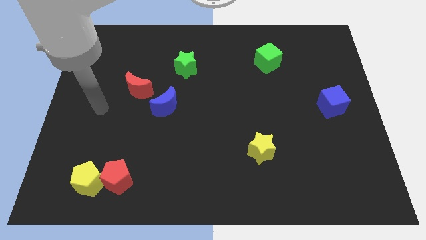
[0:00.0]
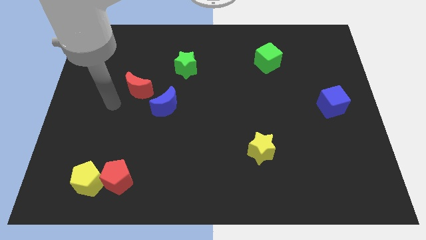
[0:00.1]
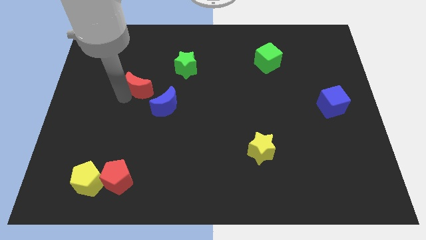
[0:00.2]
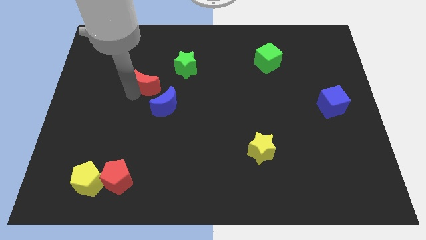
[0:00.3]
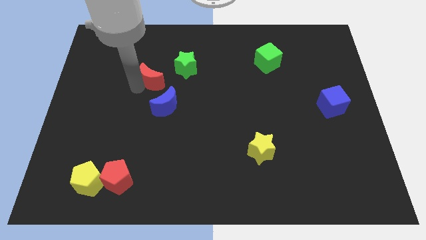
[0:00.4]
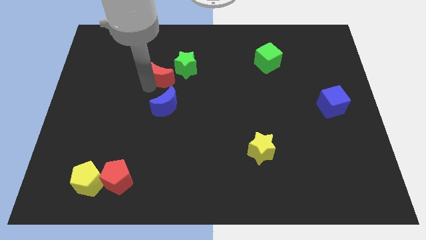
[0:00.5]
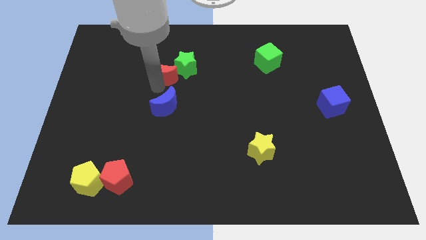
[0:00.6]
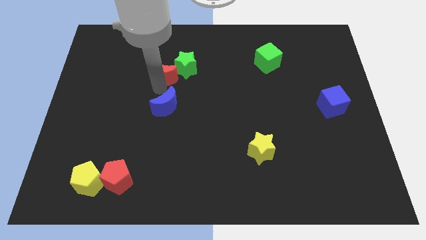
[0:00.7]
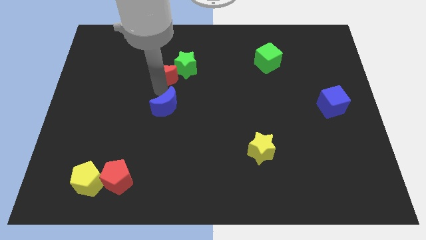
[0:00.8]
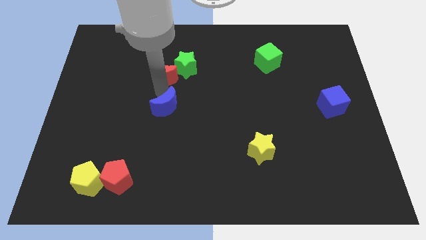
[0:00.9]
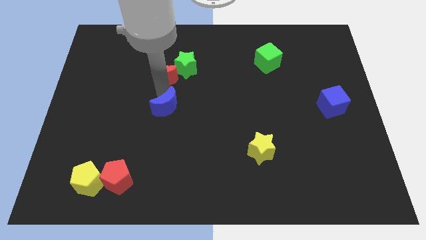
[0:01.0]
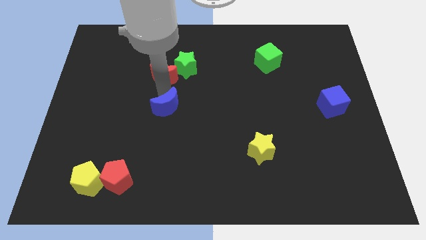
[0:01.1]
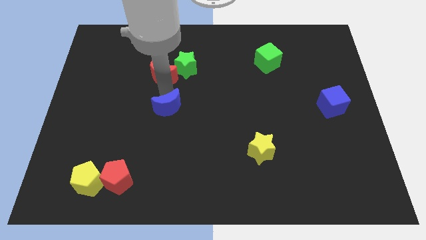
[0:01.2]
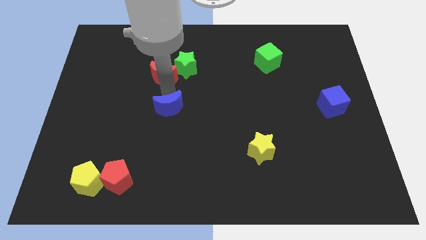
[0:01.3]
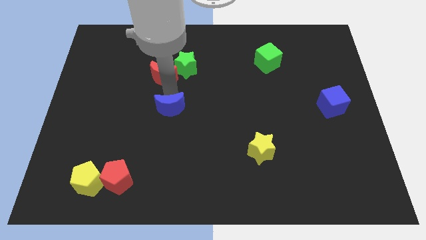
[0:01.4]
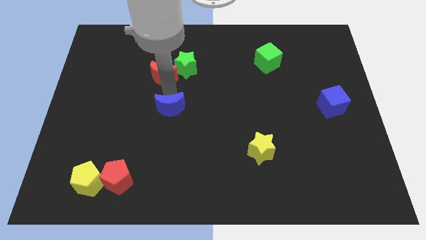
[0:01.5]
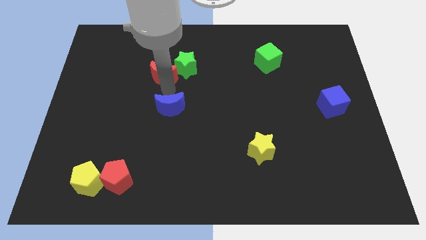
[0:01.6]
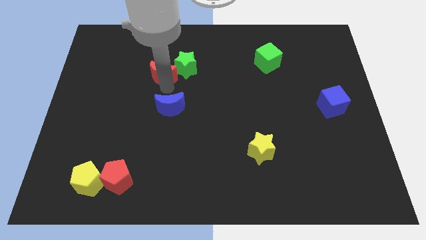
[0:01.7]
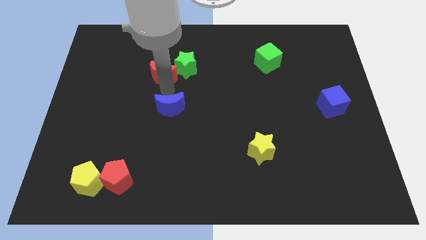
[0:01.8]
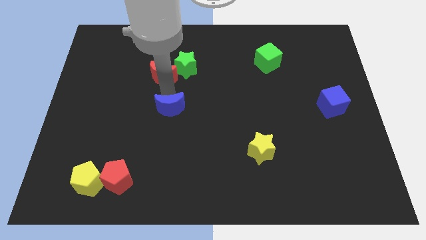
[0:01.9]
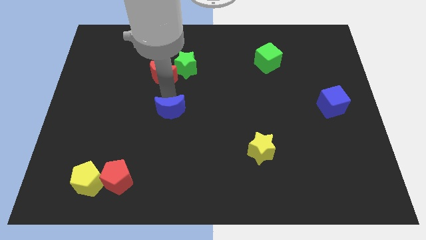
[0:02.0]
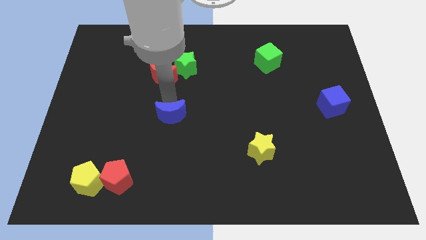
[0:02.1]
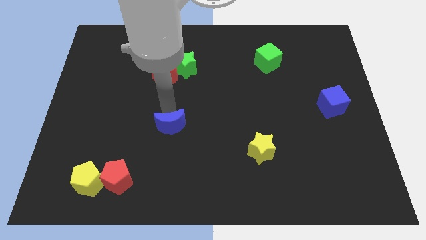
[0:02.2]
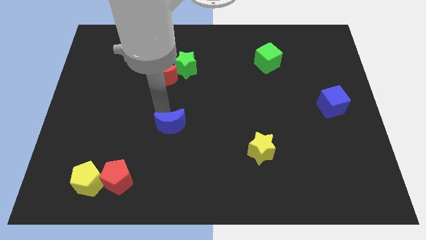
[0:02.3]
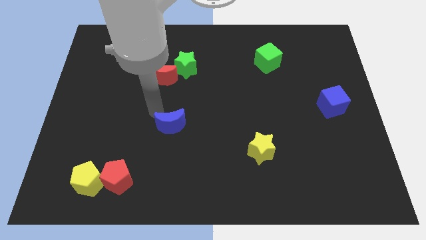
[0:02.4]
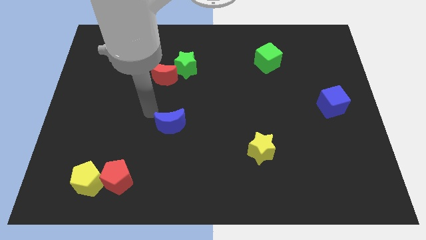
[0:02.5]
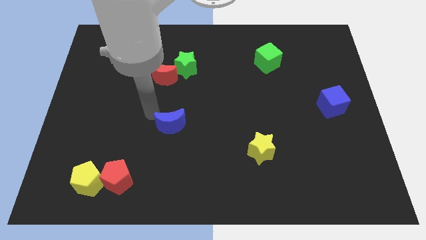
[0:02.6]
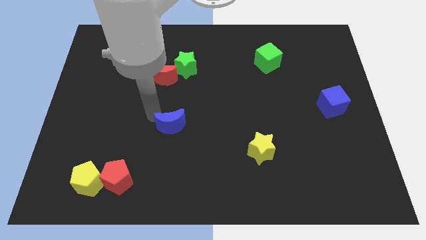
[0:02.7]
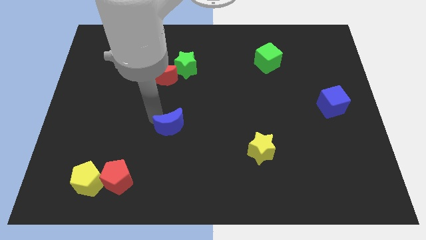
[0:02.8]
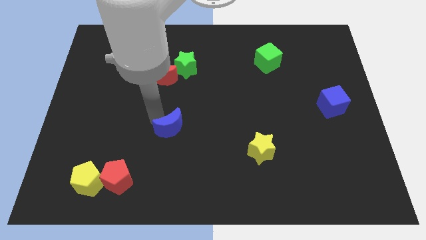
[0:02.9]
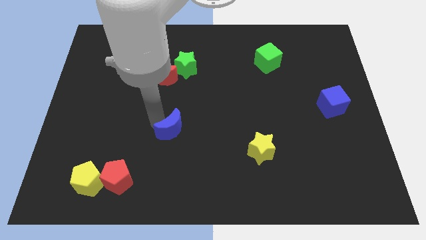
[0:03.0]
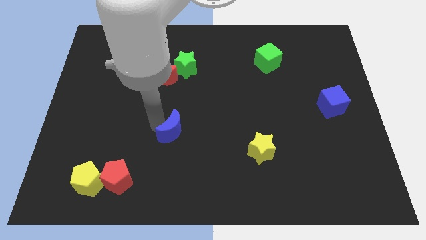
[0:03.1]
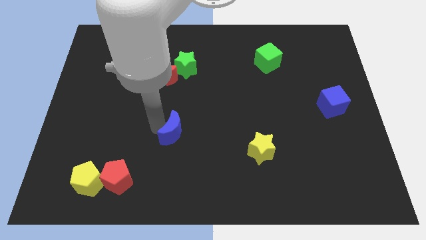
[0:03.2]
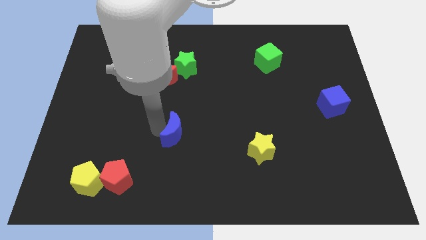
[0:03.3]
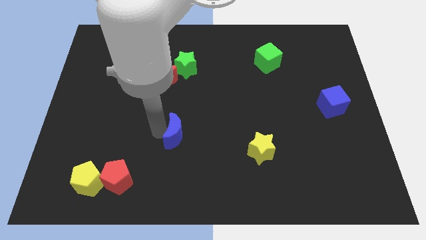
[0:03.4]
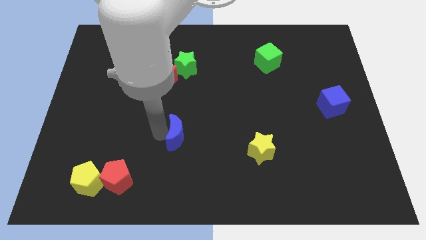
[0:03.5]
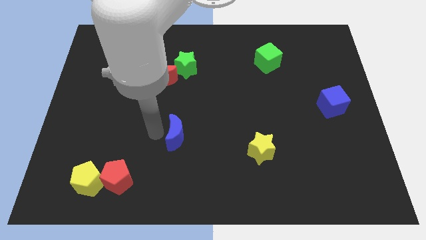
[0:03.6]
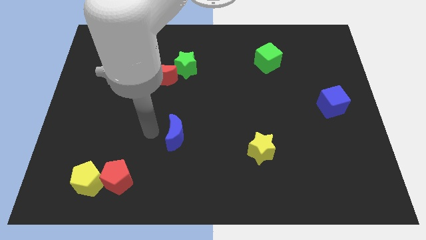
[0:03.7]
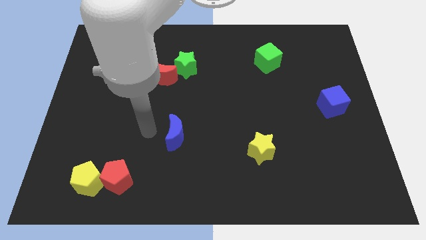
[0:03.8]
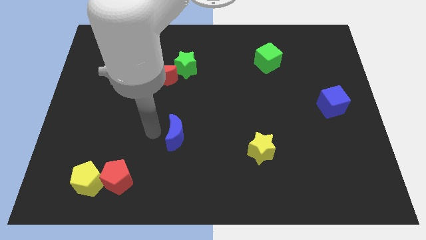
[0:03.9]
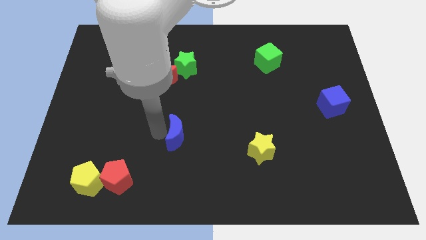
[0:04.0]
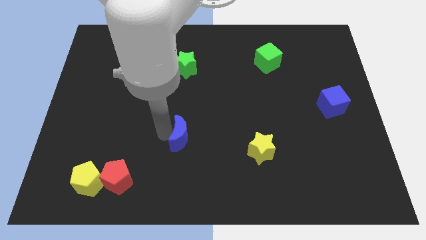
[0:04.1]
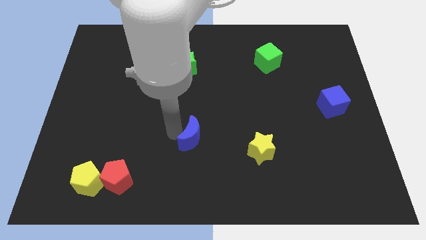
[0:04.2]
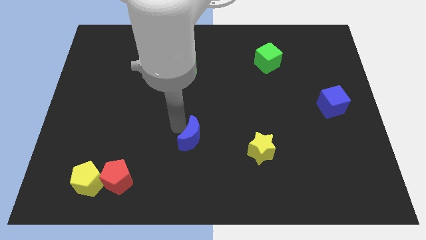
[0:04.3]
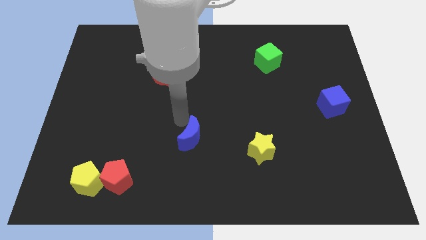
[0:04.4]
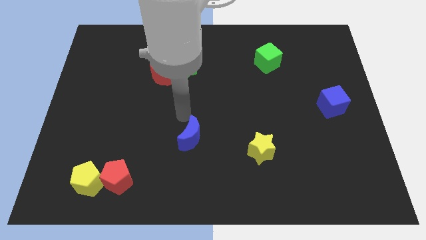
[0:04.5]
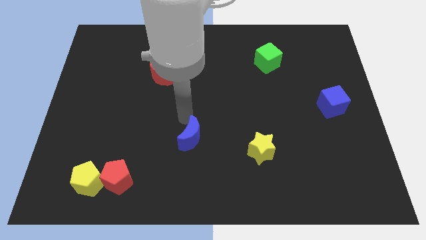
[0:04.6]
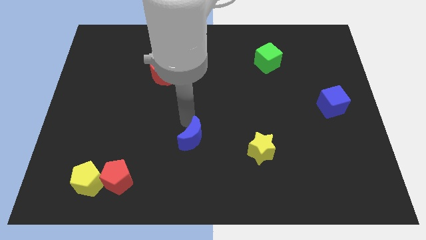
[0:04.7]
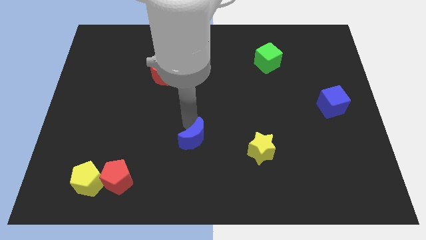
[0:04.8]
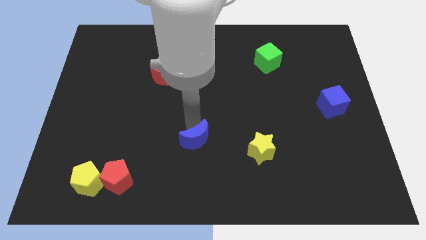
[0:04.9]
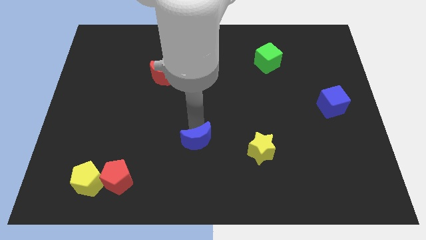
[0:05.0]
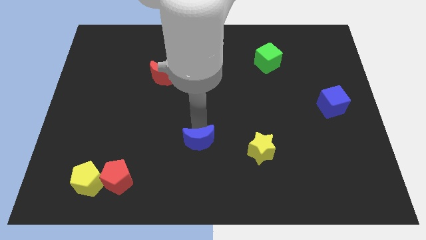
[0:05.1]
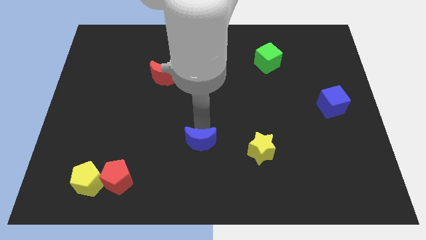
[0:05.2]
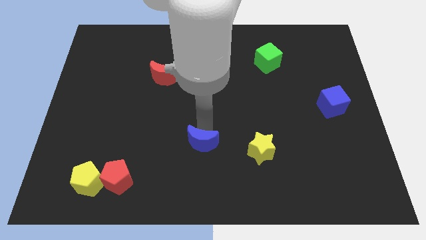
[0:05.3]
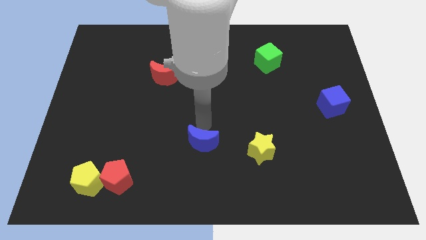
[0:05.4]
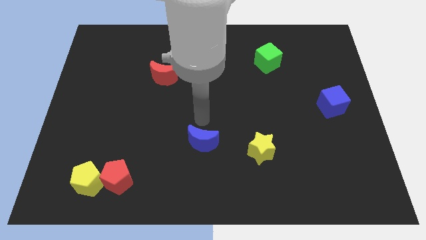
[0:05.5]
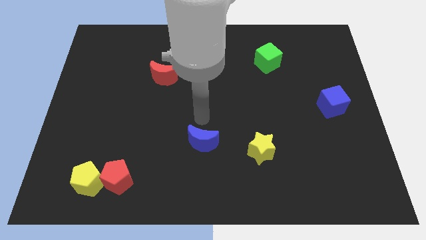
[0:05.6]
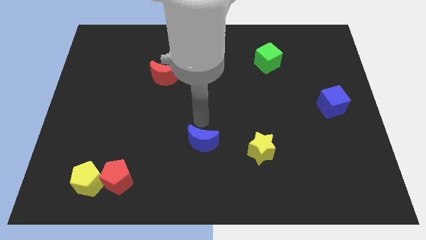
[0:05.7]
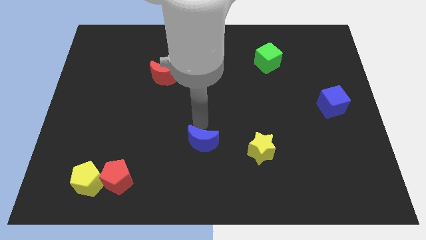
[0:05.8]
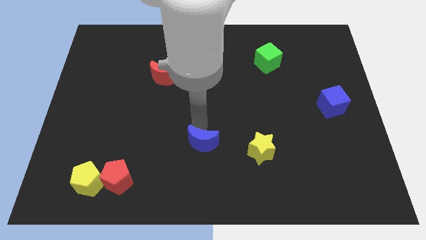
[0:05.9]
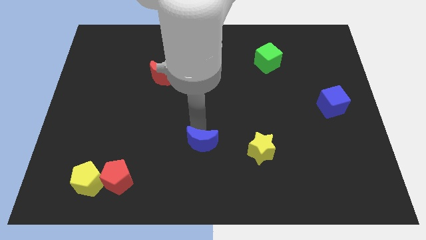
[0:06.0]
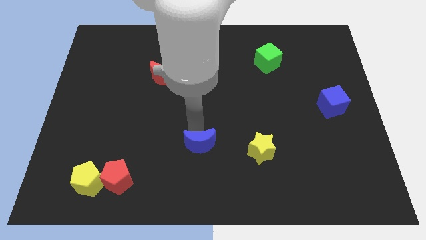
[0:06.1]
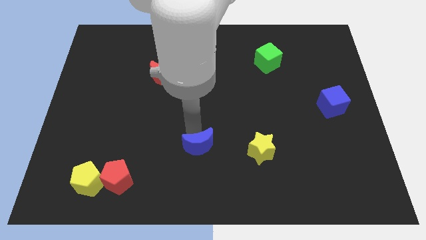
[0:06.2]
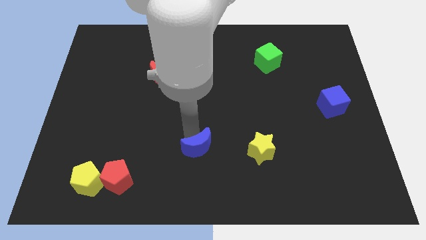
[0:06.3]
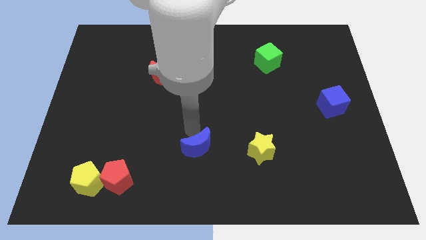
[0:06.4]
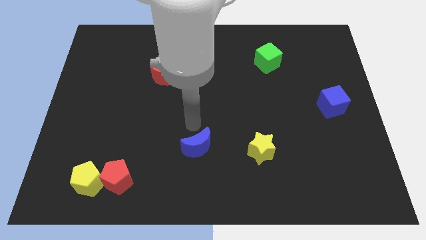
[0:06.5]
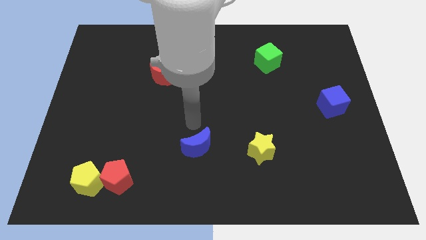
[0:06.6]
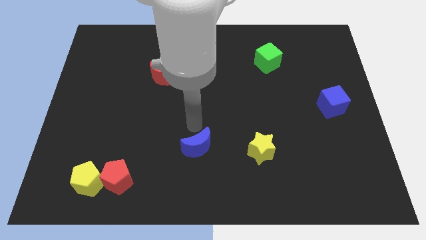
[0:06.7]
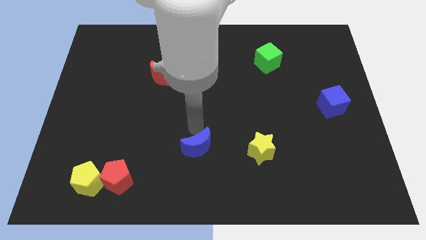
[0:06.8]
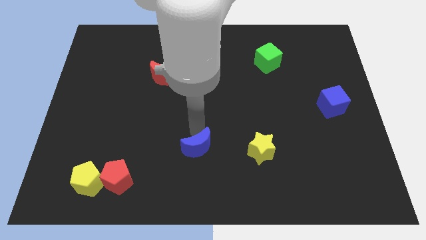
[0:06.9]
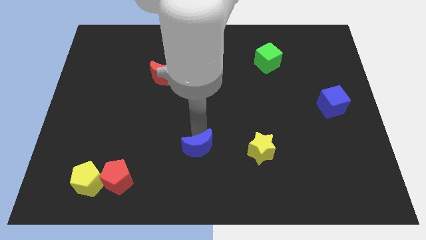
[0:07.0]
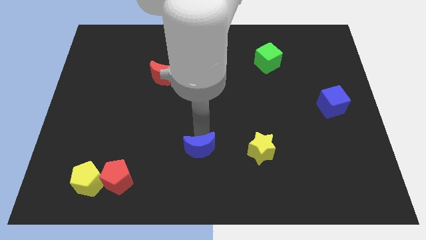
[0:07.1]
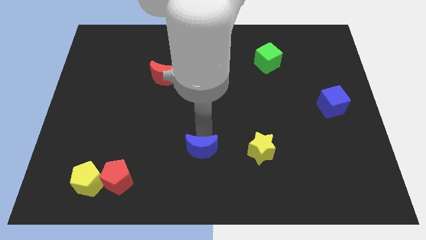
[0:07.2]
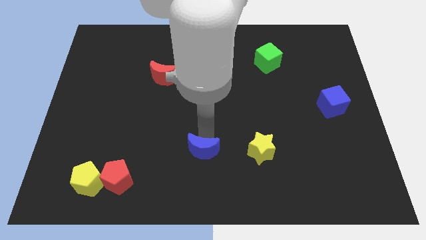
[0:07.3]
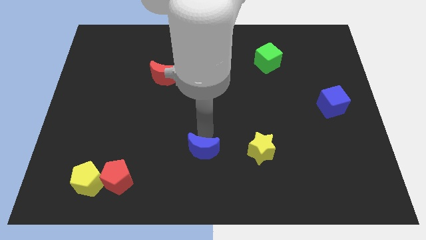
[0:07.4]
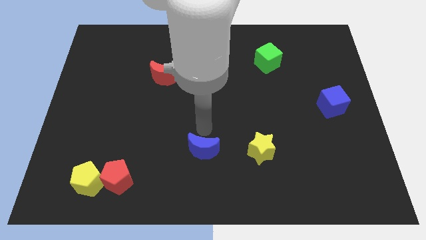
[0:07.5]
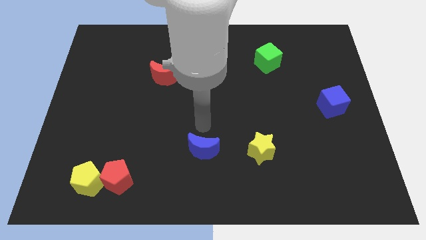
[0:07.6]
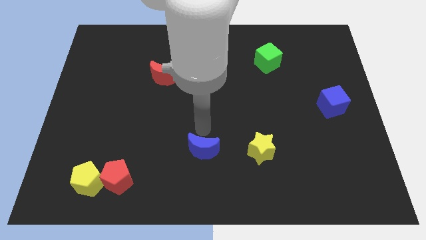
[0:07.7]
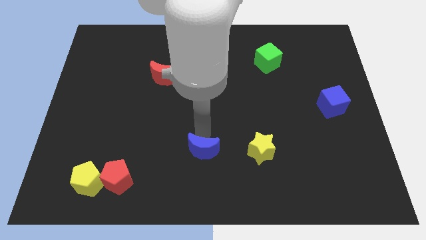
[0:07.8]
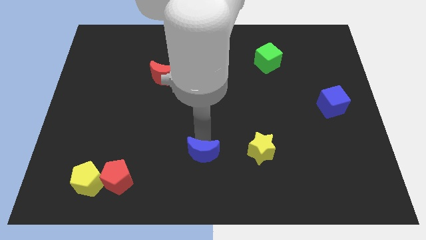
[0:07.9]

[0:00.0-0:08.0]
push the blue moon to the bottom
